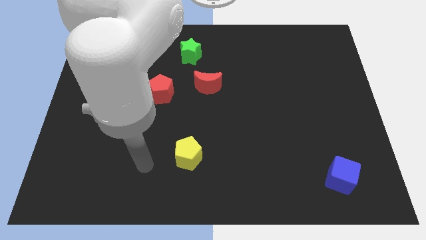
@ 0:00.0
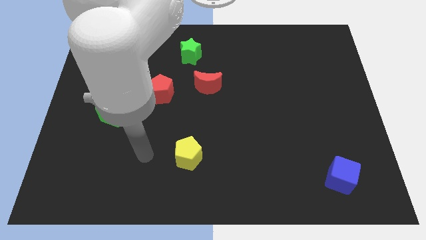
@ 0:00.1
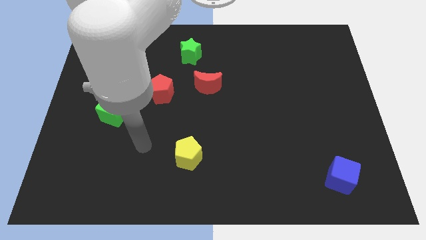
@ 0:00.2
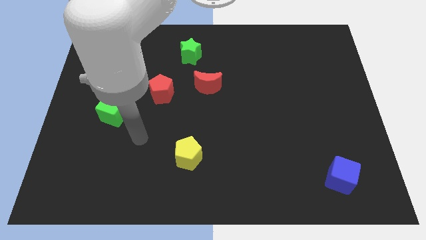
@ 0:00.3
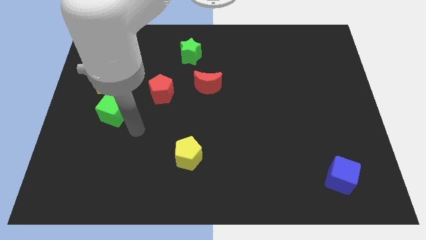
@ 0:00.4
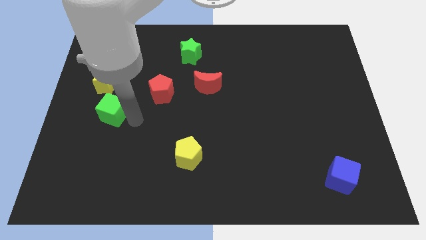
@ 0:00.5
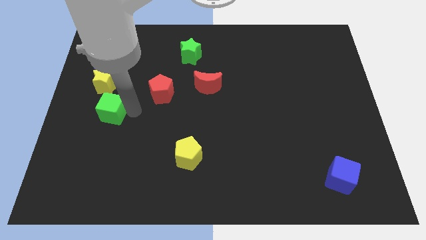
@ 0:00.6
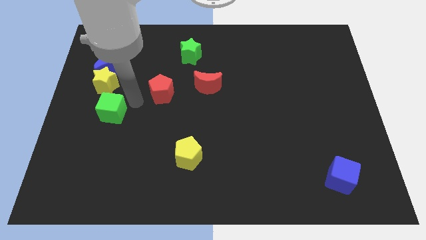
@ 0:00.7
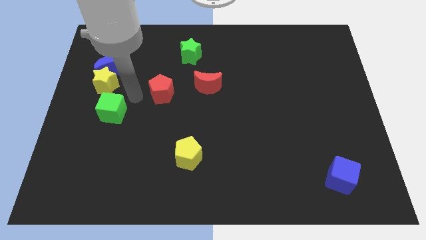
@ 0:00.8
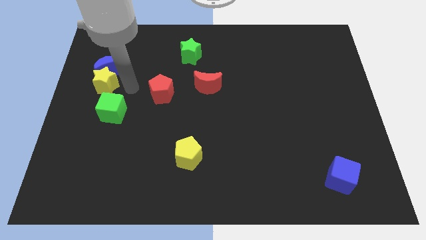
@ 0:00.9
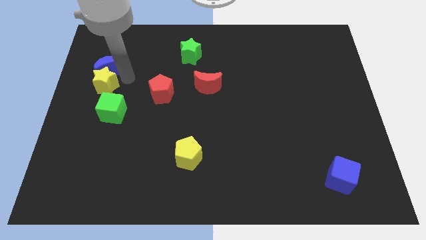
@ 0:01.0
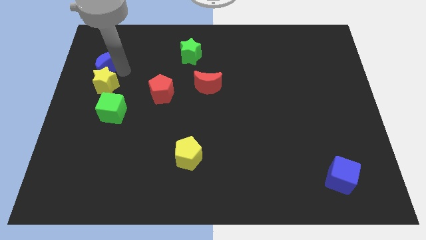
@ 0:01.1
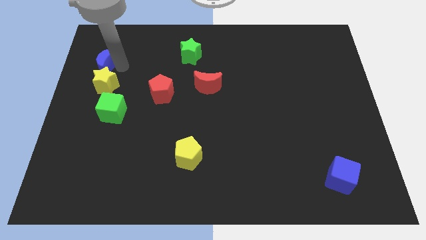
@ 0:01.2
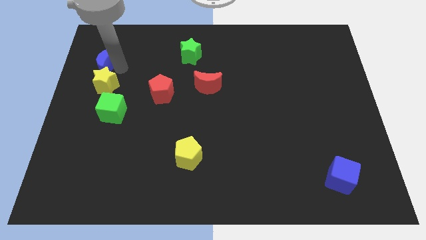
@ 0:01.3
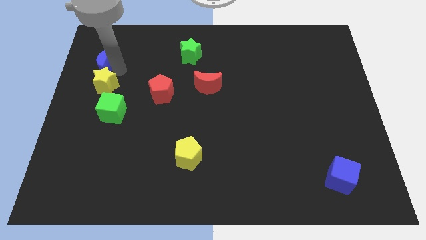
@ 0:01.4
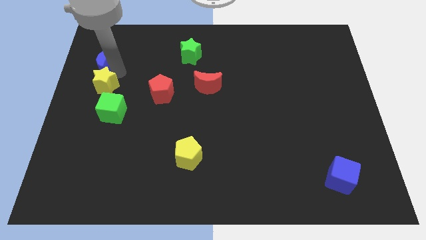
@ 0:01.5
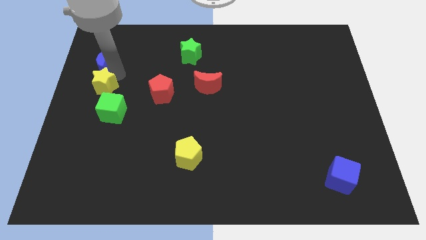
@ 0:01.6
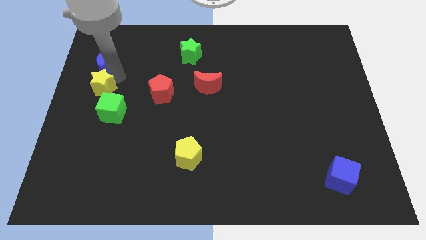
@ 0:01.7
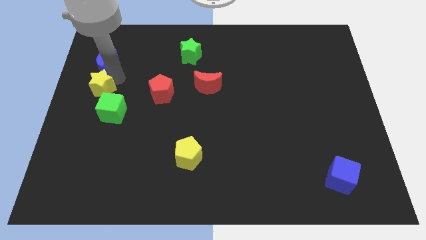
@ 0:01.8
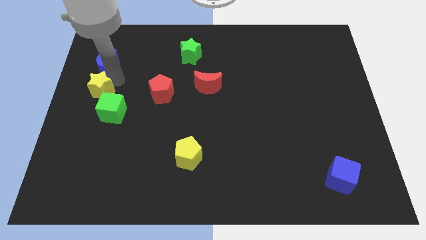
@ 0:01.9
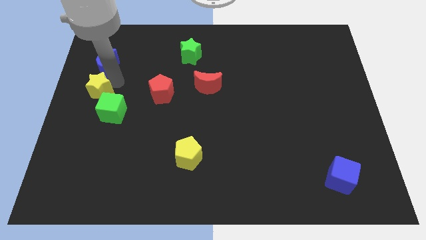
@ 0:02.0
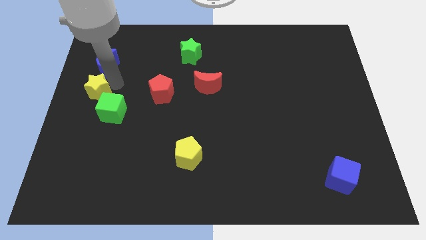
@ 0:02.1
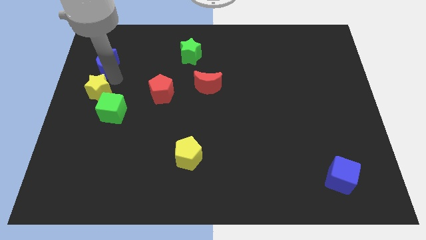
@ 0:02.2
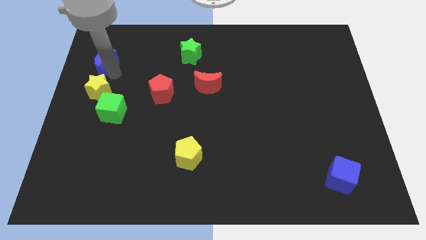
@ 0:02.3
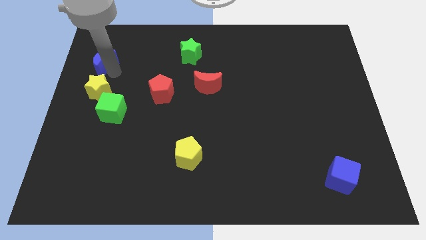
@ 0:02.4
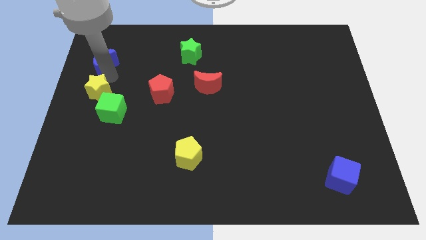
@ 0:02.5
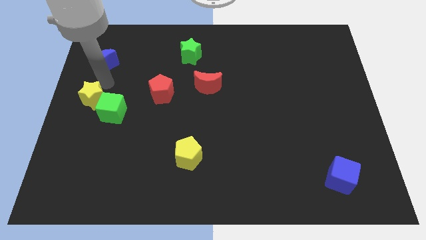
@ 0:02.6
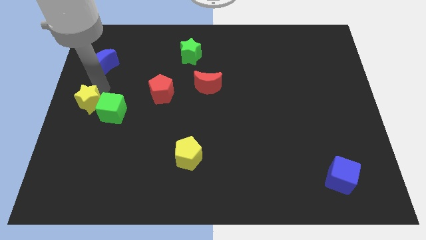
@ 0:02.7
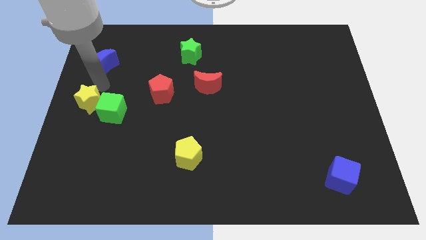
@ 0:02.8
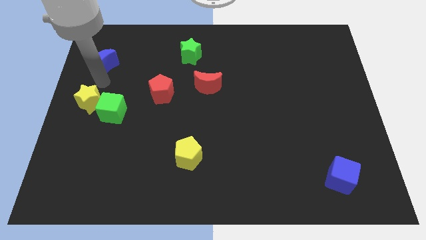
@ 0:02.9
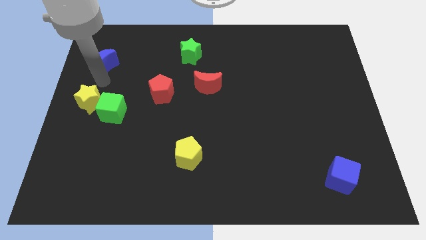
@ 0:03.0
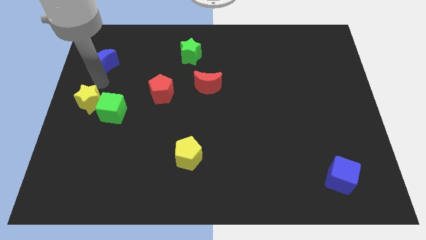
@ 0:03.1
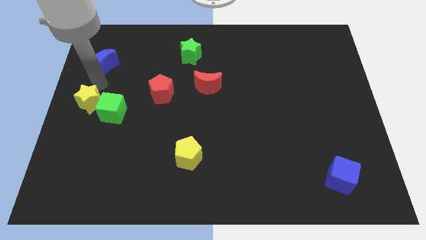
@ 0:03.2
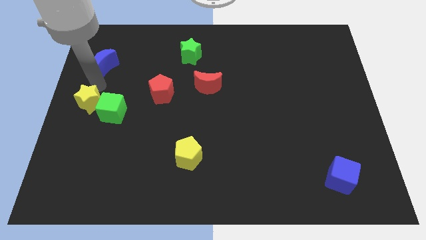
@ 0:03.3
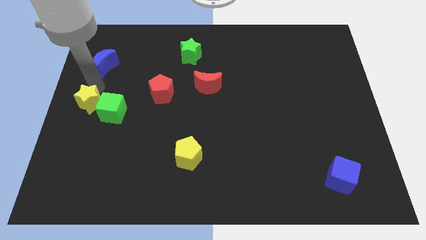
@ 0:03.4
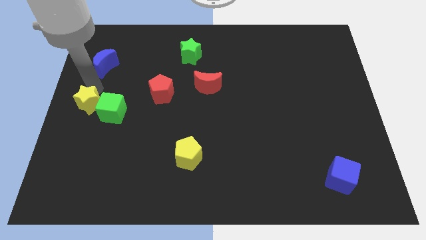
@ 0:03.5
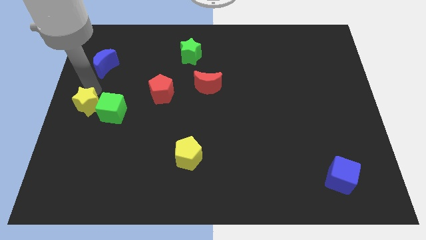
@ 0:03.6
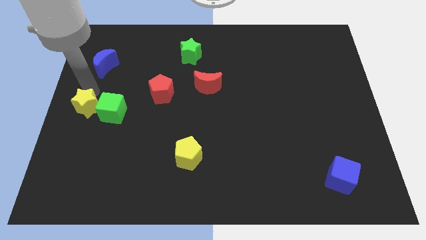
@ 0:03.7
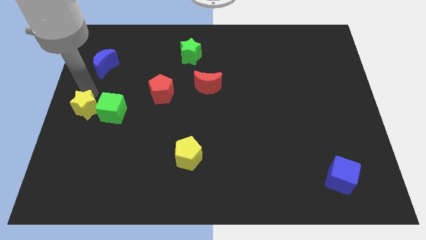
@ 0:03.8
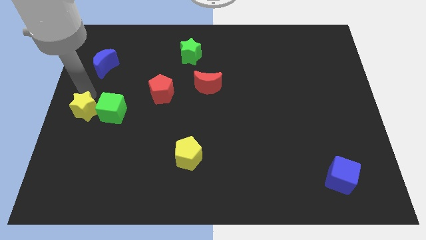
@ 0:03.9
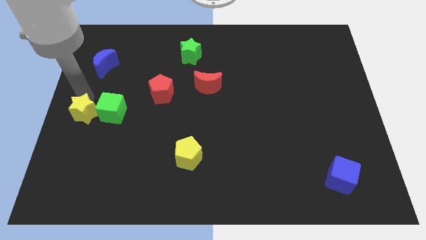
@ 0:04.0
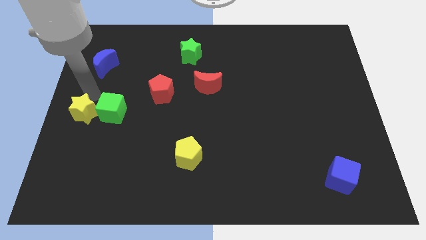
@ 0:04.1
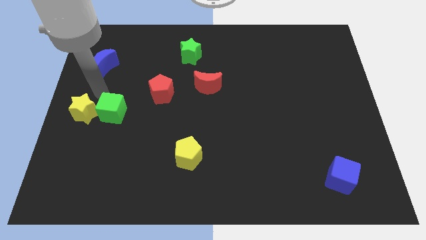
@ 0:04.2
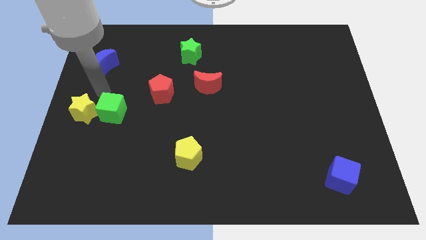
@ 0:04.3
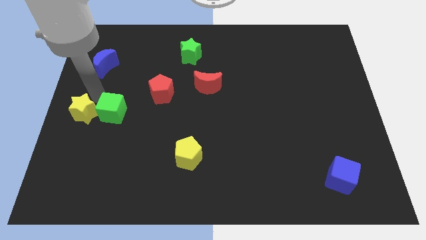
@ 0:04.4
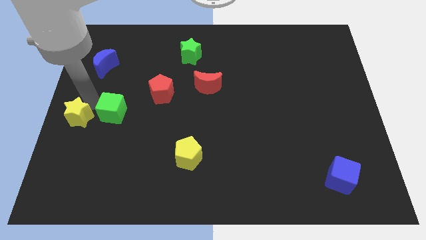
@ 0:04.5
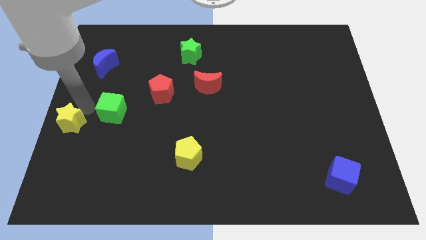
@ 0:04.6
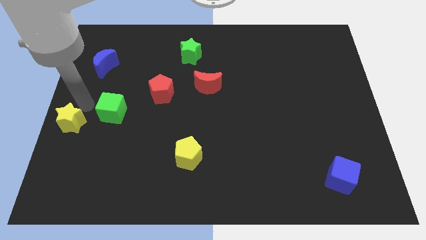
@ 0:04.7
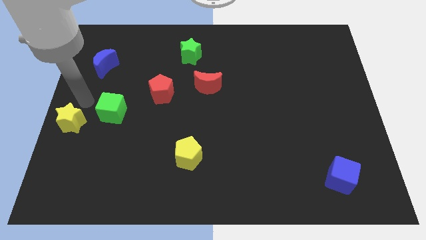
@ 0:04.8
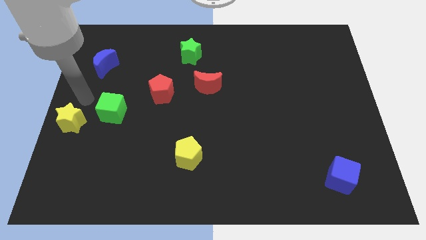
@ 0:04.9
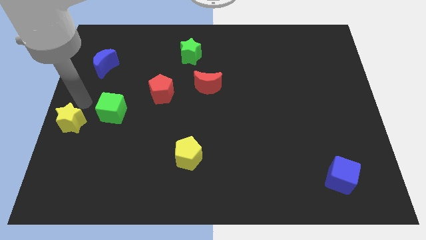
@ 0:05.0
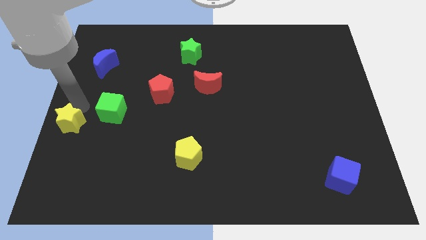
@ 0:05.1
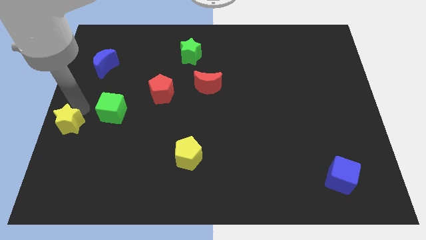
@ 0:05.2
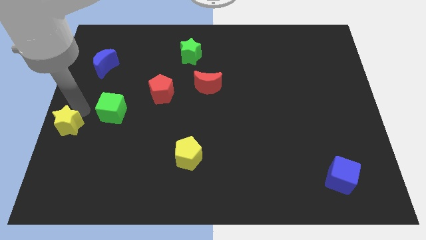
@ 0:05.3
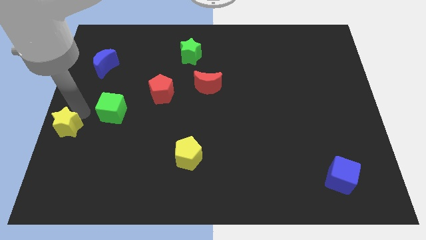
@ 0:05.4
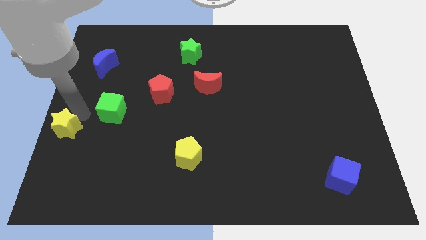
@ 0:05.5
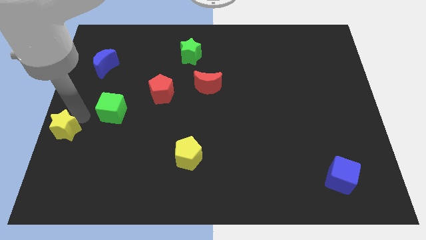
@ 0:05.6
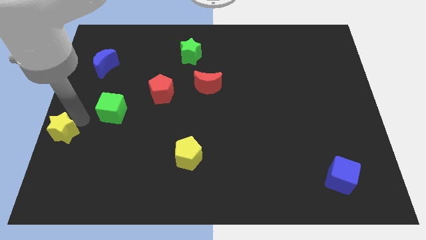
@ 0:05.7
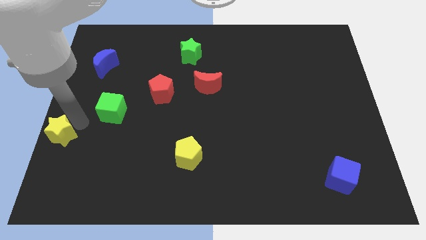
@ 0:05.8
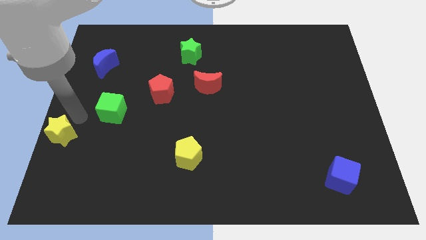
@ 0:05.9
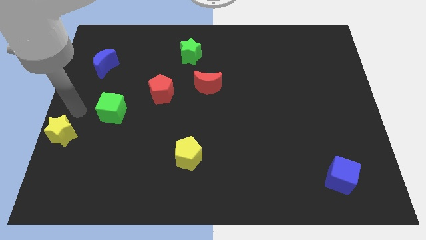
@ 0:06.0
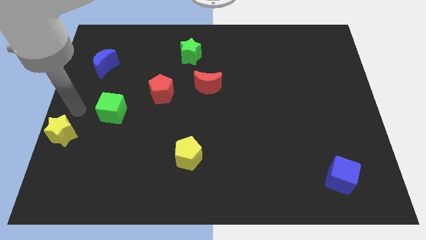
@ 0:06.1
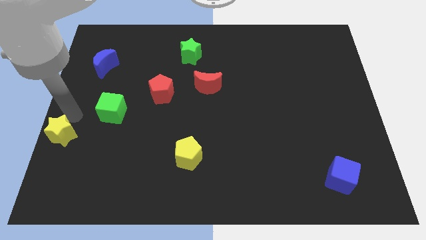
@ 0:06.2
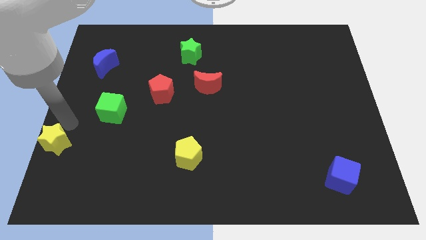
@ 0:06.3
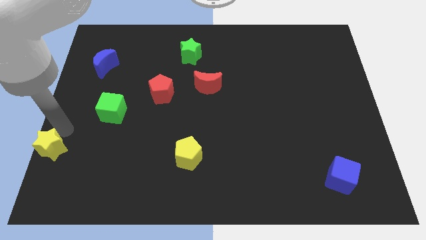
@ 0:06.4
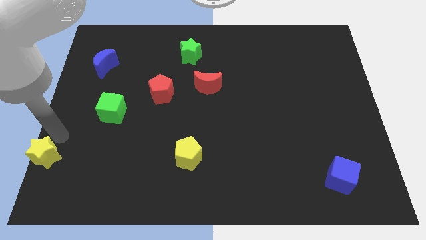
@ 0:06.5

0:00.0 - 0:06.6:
move the yellow star to the bottom left
